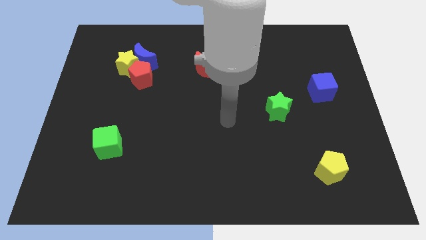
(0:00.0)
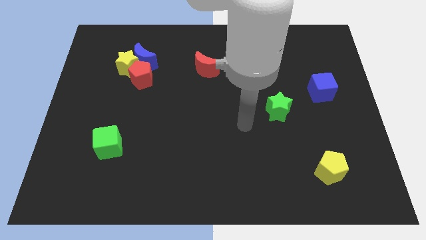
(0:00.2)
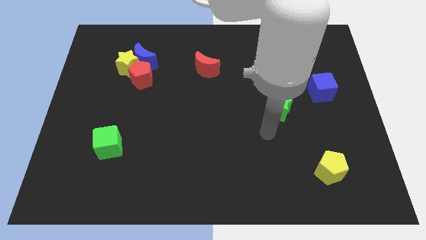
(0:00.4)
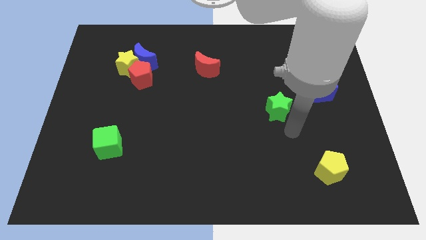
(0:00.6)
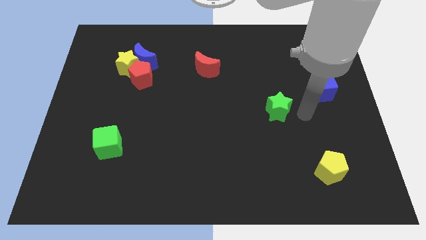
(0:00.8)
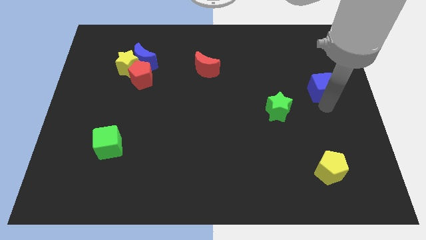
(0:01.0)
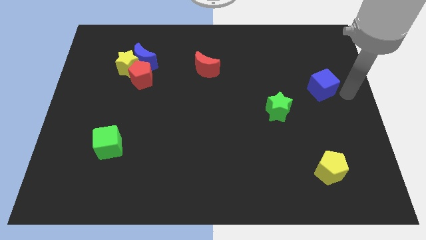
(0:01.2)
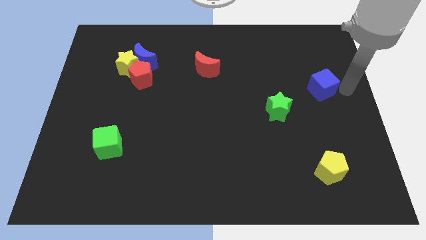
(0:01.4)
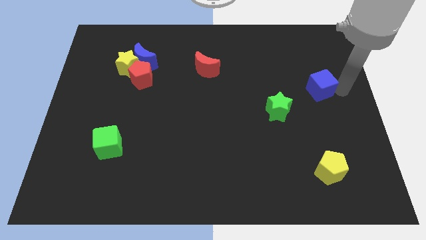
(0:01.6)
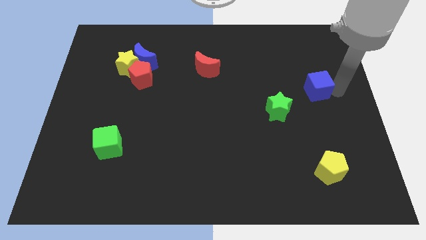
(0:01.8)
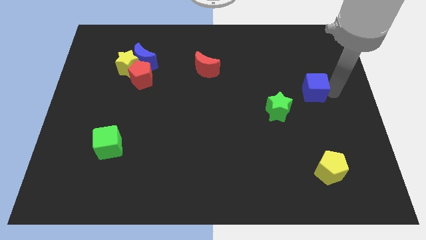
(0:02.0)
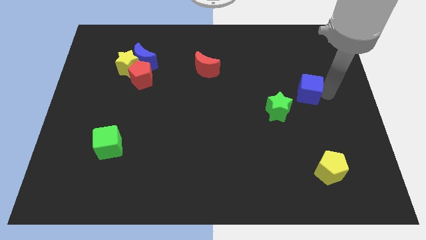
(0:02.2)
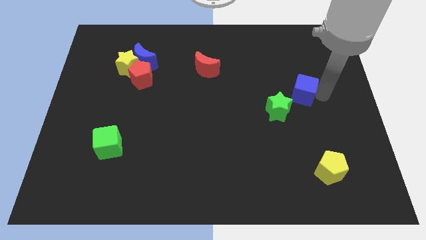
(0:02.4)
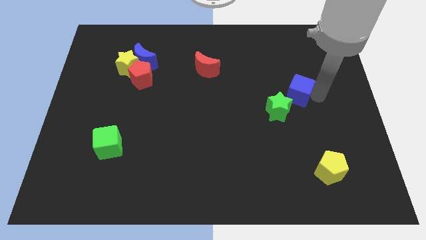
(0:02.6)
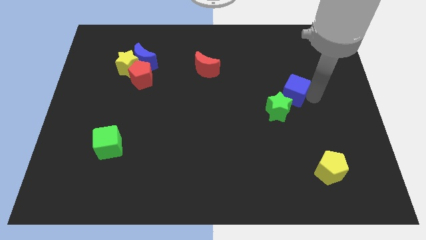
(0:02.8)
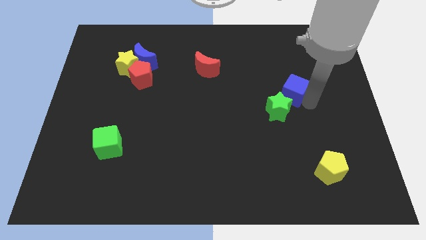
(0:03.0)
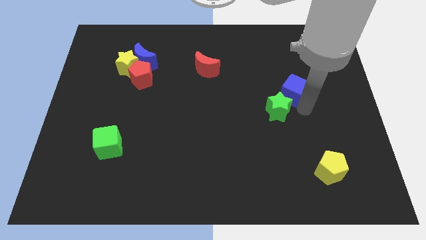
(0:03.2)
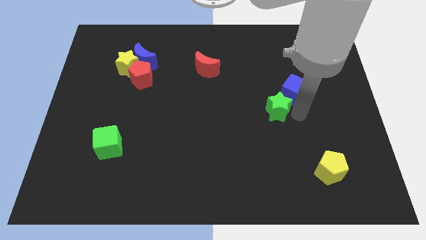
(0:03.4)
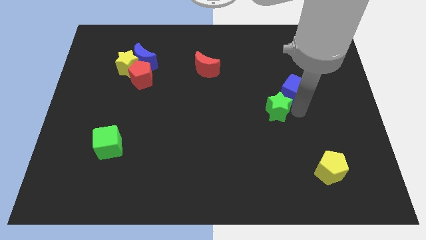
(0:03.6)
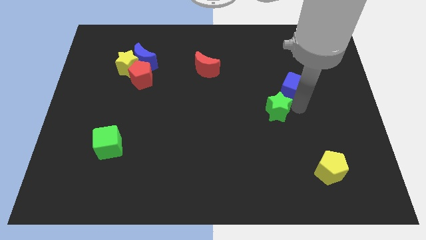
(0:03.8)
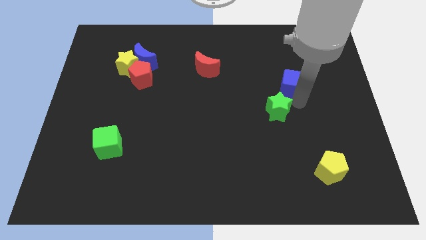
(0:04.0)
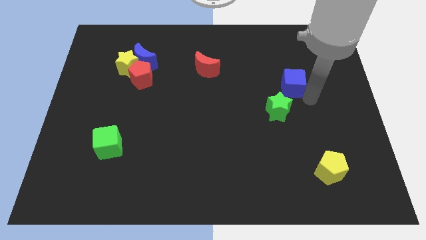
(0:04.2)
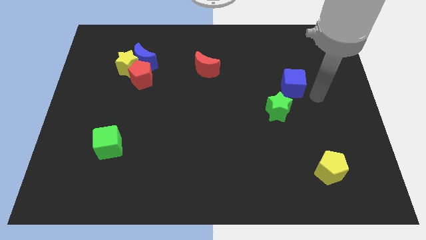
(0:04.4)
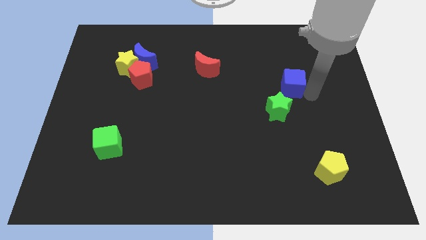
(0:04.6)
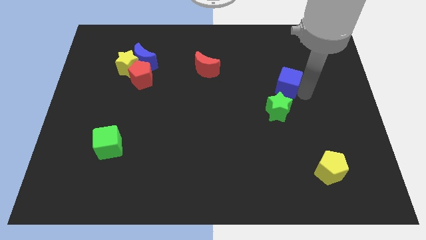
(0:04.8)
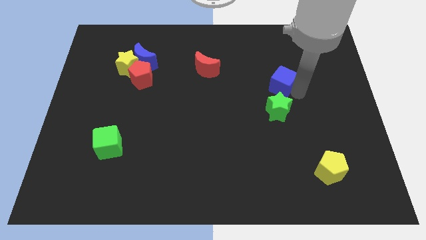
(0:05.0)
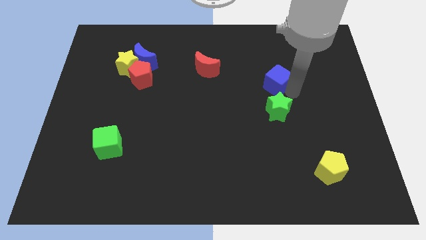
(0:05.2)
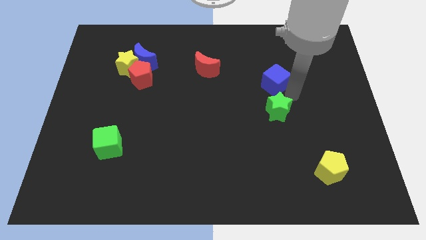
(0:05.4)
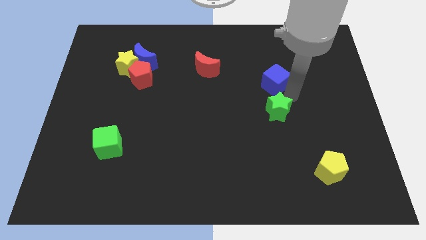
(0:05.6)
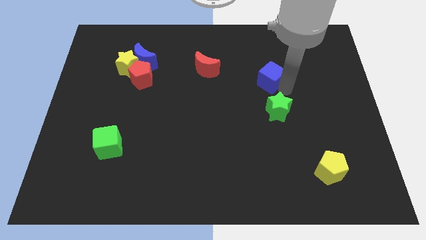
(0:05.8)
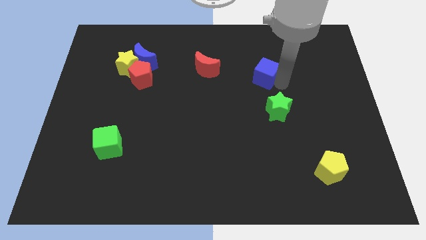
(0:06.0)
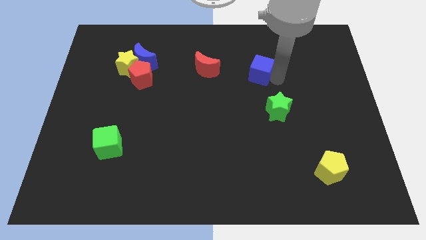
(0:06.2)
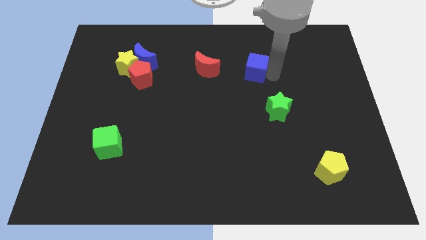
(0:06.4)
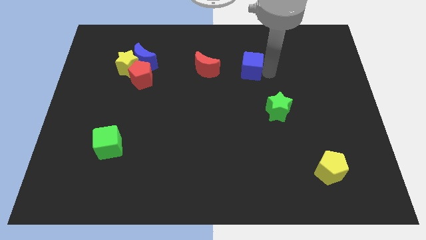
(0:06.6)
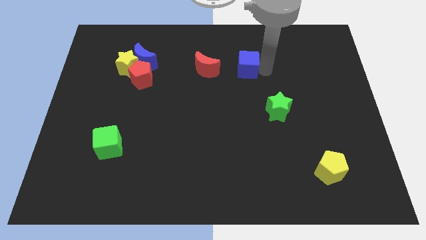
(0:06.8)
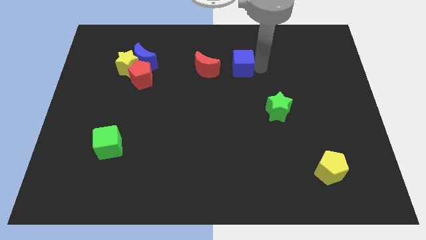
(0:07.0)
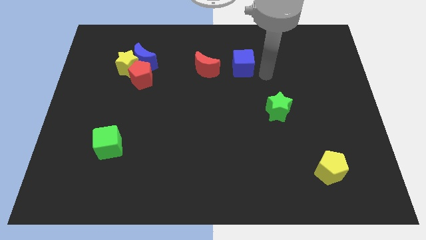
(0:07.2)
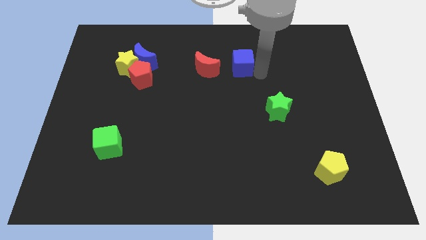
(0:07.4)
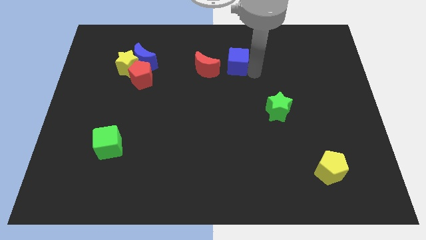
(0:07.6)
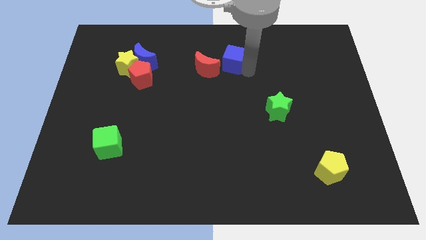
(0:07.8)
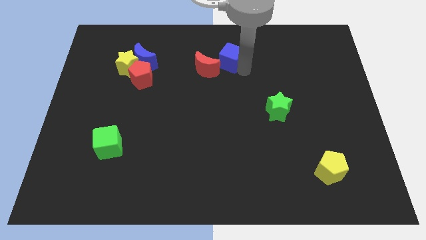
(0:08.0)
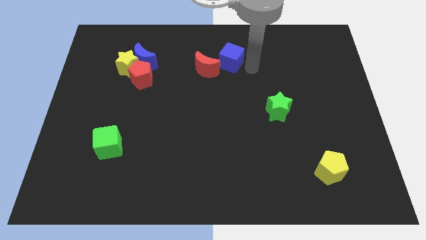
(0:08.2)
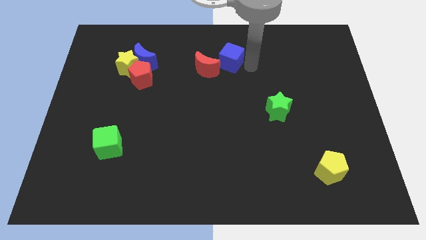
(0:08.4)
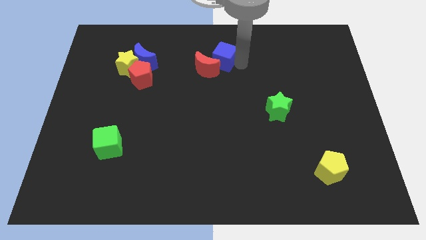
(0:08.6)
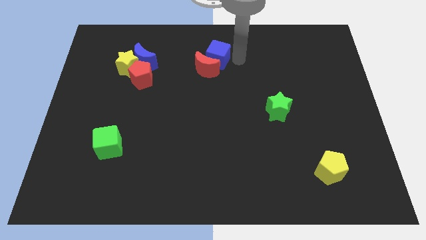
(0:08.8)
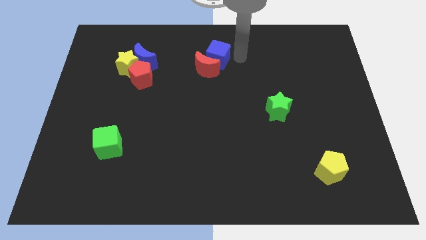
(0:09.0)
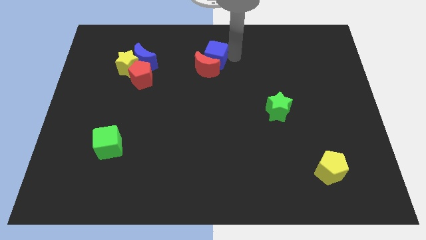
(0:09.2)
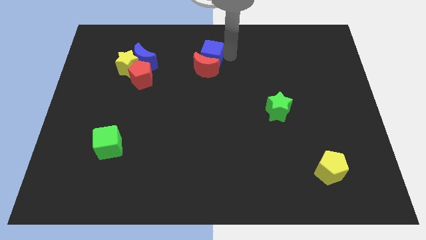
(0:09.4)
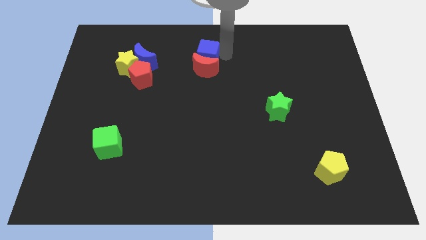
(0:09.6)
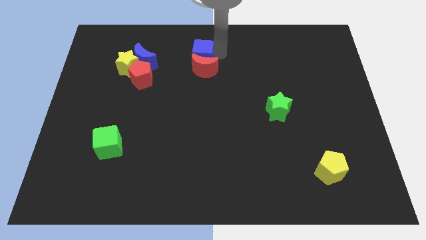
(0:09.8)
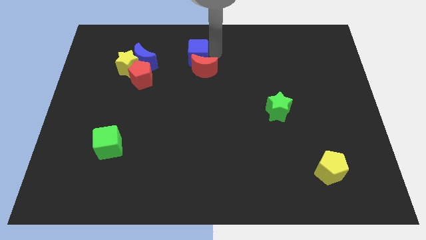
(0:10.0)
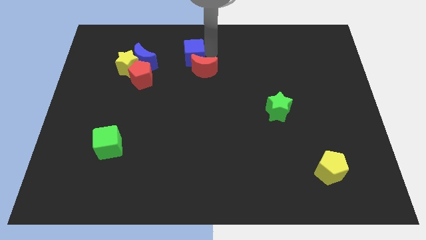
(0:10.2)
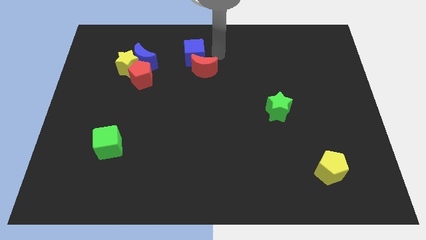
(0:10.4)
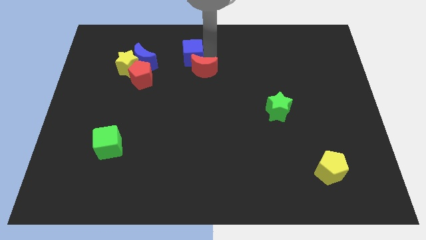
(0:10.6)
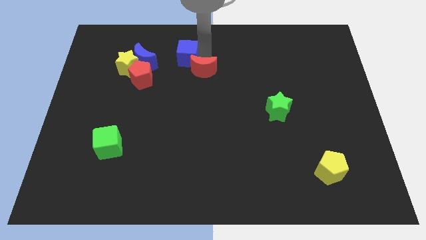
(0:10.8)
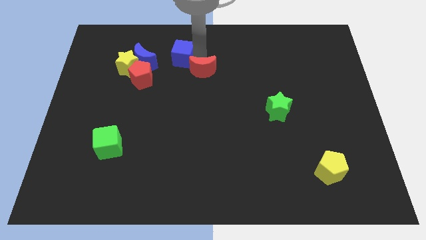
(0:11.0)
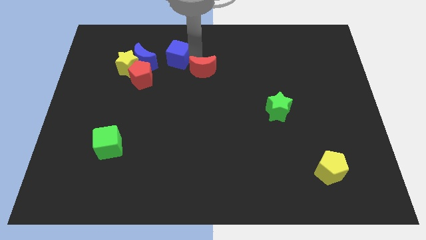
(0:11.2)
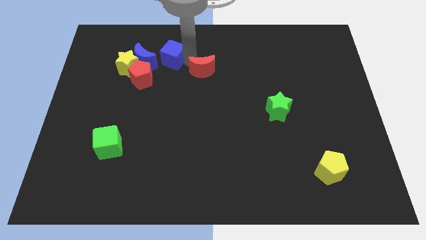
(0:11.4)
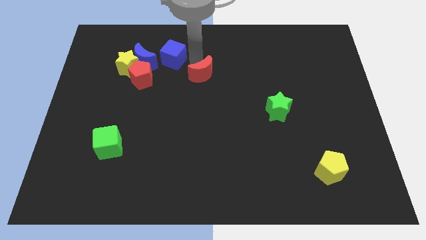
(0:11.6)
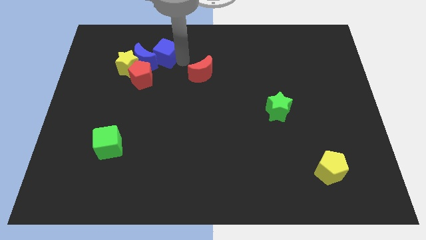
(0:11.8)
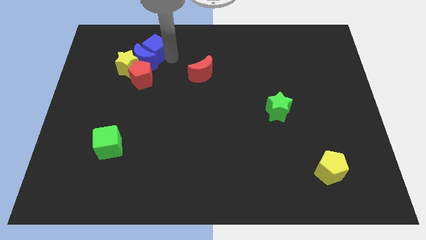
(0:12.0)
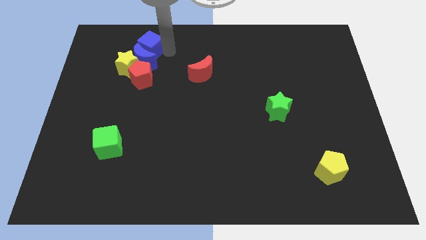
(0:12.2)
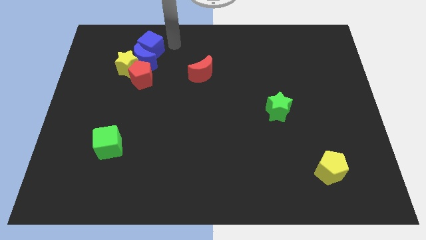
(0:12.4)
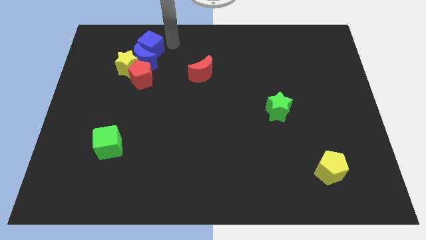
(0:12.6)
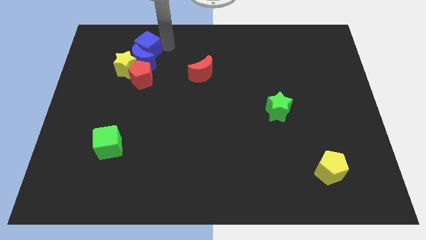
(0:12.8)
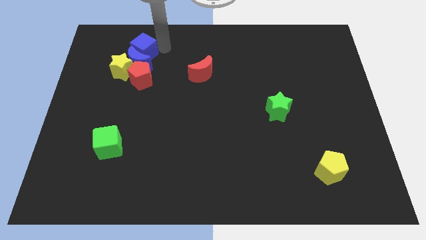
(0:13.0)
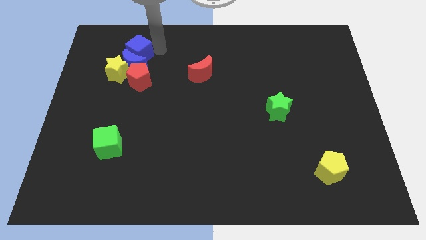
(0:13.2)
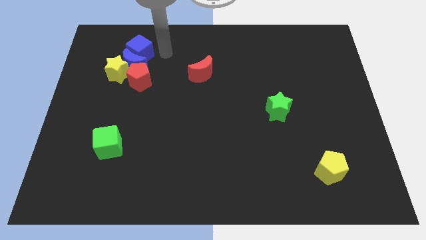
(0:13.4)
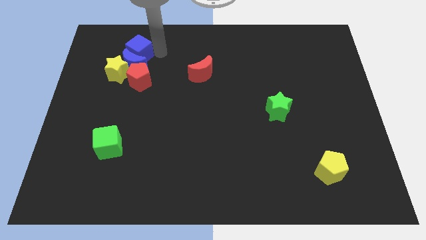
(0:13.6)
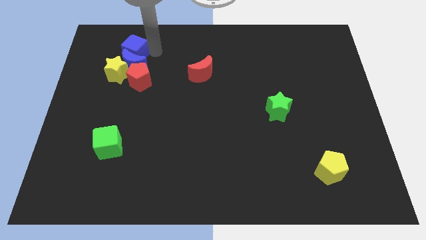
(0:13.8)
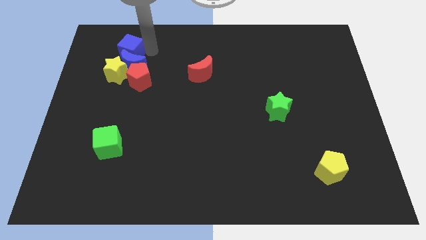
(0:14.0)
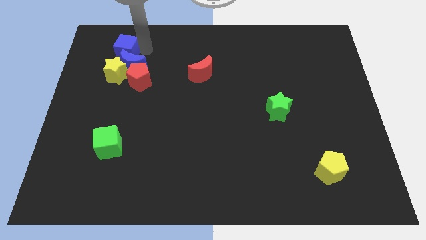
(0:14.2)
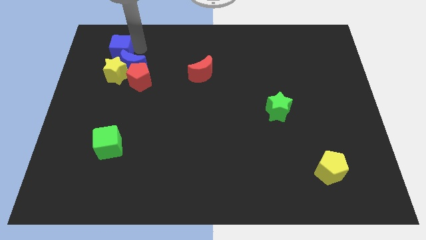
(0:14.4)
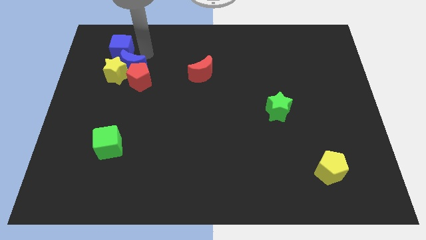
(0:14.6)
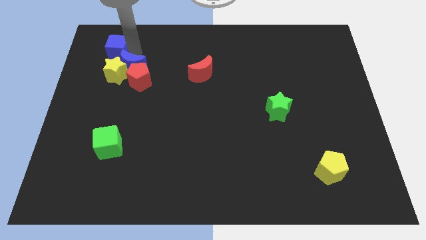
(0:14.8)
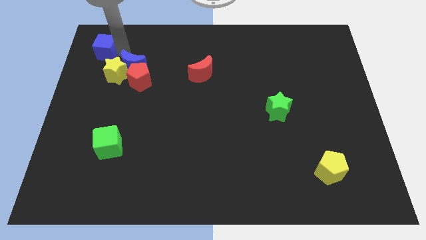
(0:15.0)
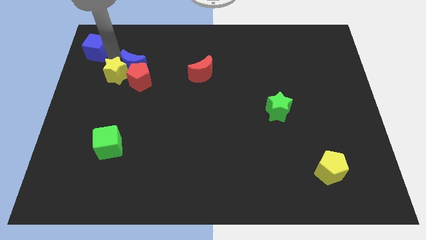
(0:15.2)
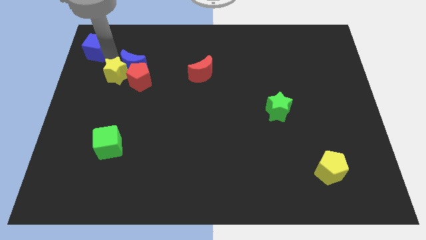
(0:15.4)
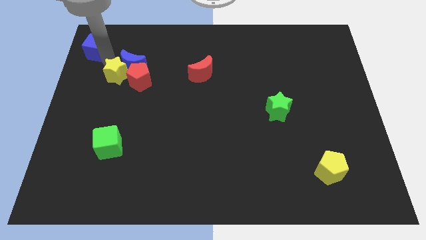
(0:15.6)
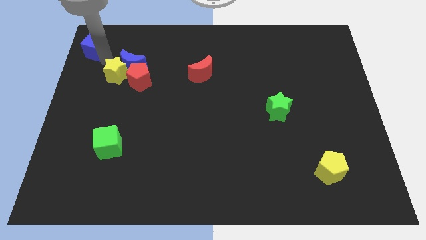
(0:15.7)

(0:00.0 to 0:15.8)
put the blue cube to the top left corner

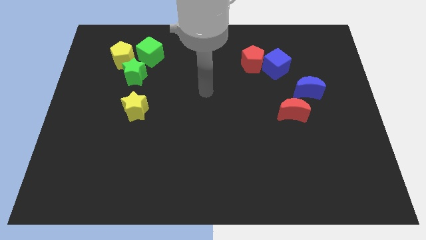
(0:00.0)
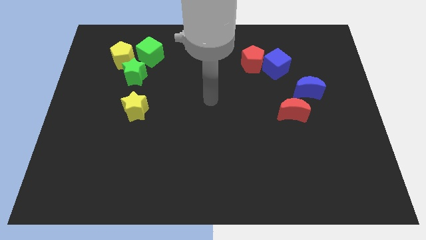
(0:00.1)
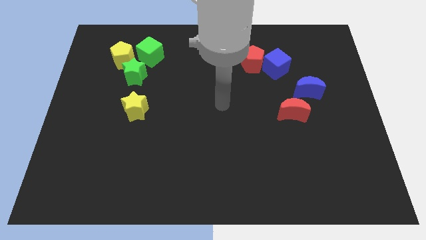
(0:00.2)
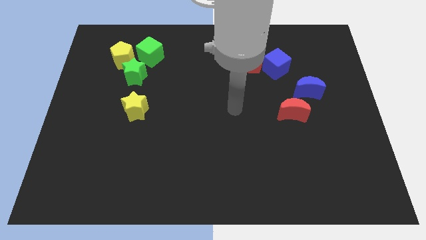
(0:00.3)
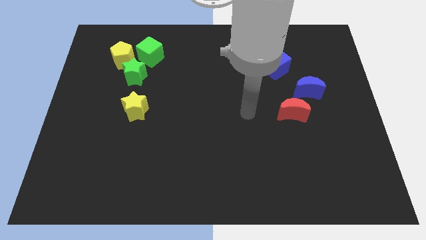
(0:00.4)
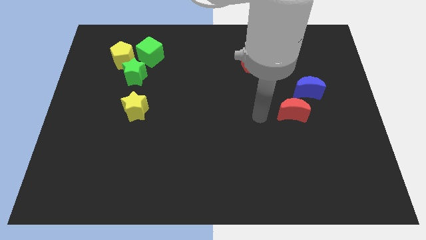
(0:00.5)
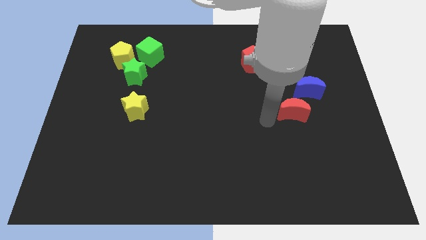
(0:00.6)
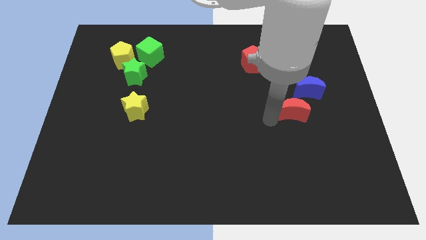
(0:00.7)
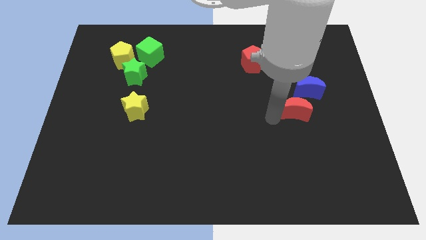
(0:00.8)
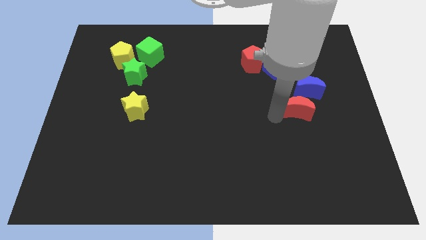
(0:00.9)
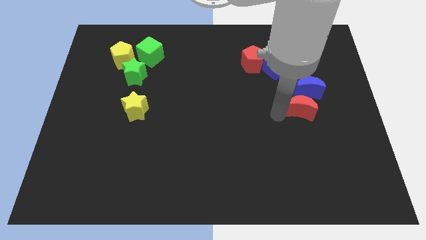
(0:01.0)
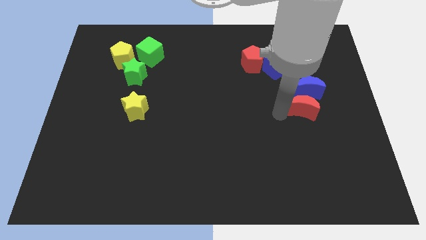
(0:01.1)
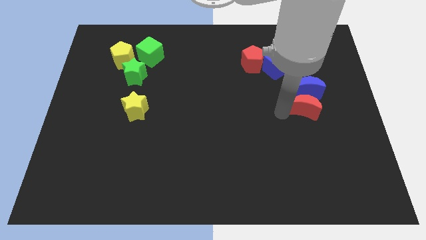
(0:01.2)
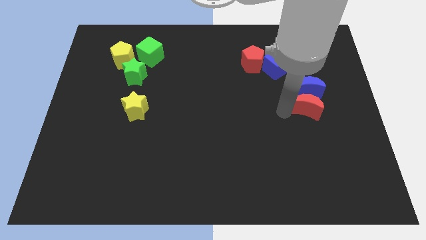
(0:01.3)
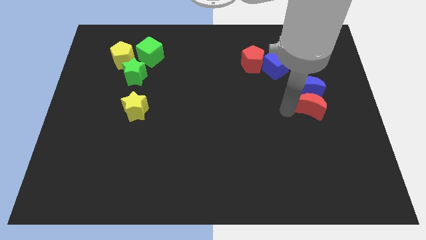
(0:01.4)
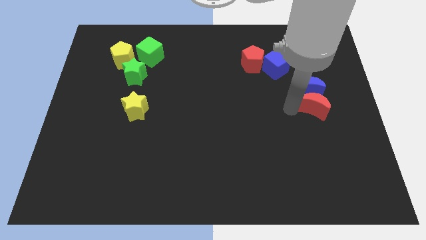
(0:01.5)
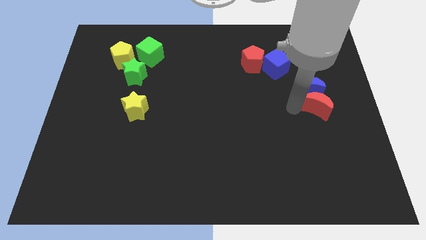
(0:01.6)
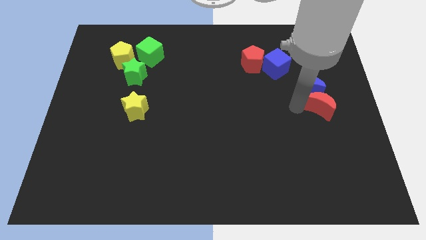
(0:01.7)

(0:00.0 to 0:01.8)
slide the red moon to the center right
